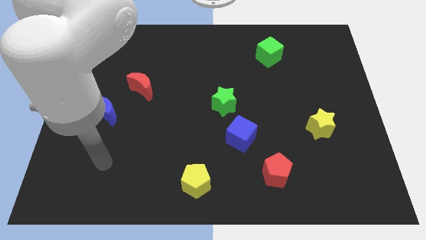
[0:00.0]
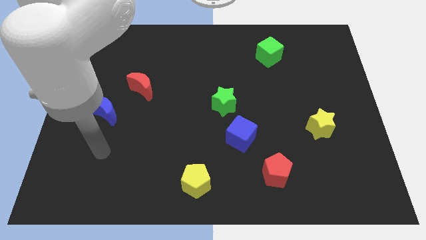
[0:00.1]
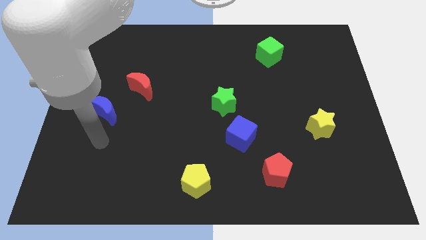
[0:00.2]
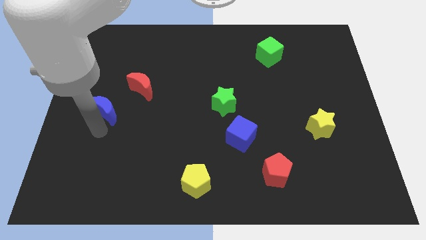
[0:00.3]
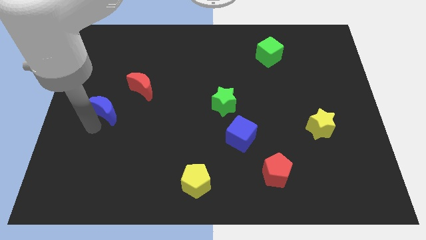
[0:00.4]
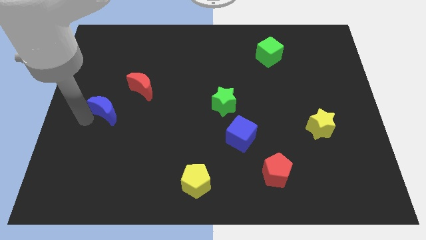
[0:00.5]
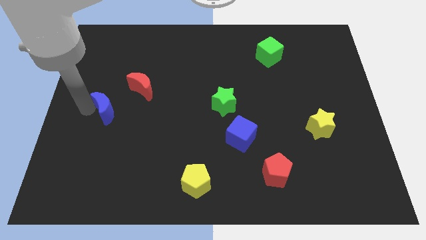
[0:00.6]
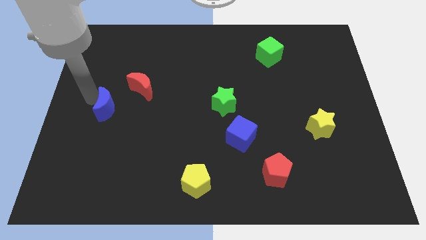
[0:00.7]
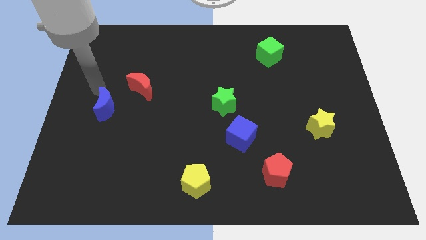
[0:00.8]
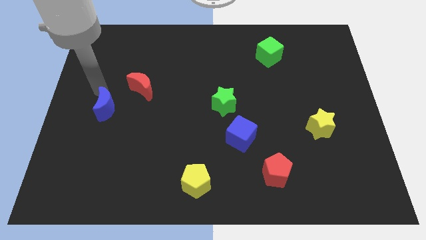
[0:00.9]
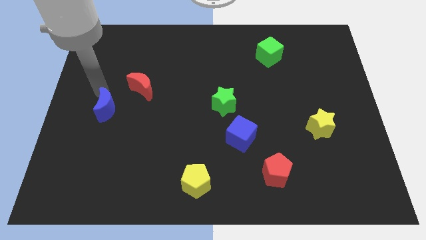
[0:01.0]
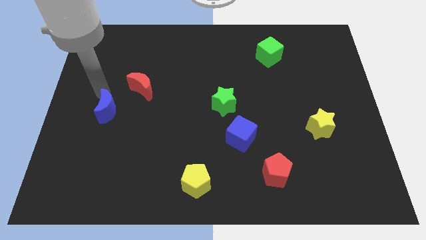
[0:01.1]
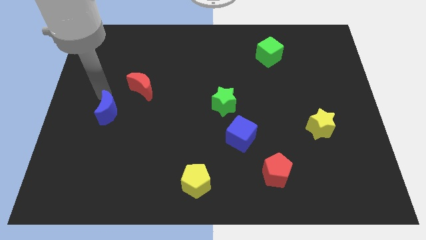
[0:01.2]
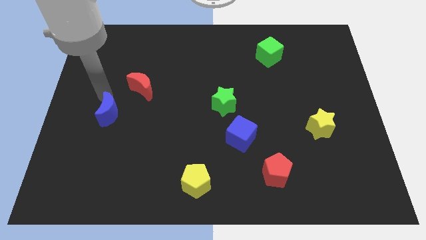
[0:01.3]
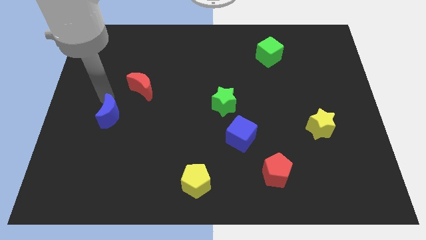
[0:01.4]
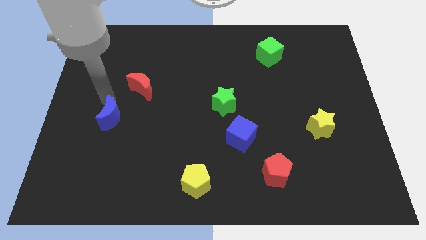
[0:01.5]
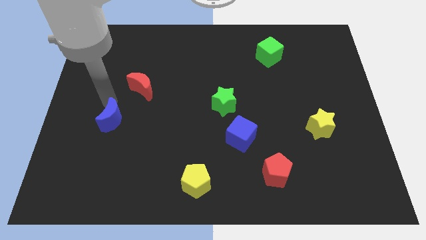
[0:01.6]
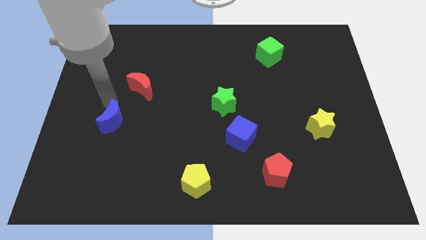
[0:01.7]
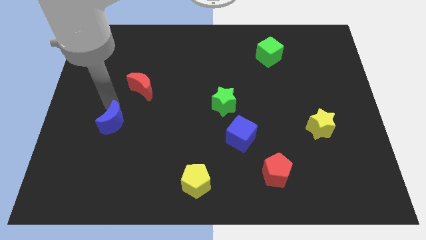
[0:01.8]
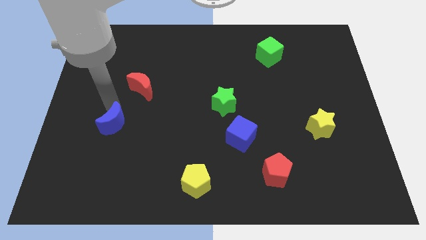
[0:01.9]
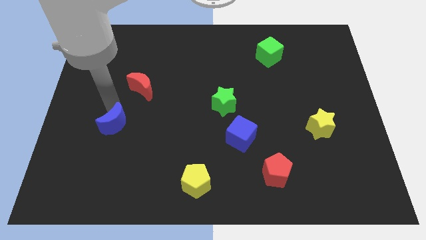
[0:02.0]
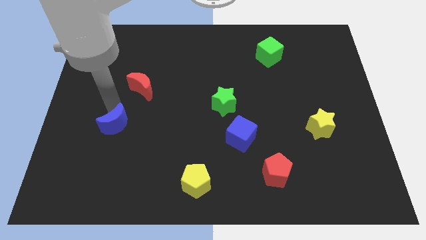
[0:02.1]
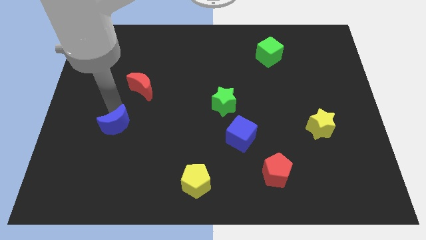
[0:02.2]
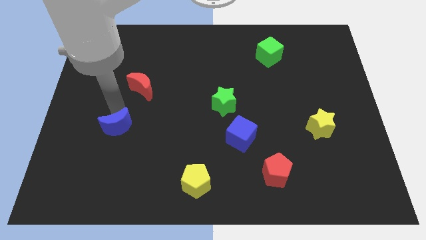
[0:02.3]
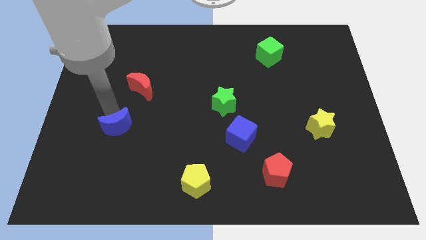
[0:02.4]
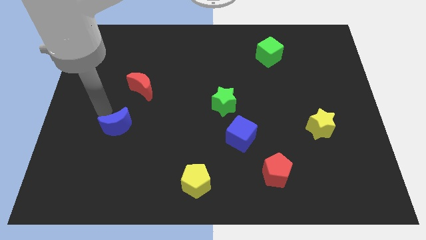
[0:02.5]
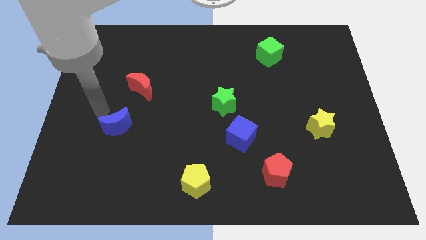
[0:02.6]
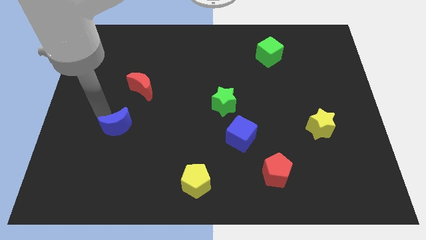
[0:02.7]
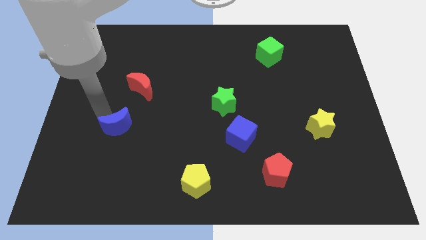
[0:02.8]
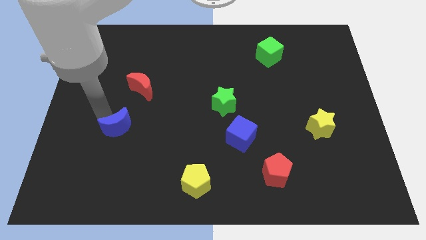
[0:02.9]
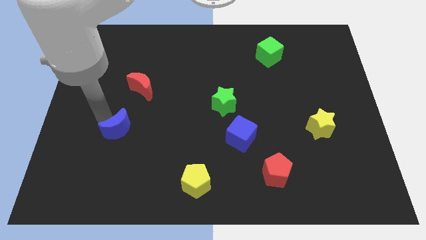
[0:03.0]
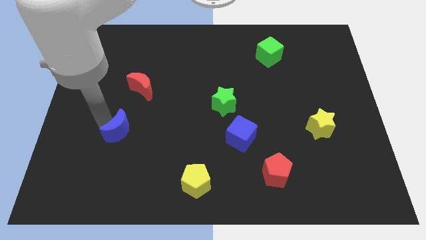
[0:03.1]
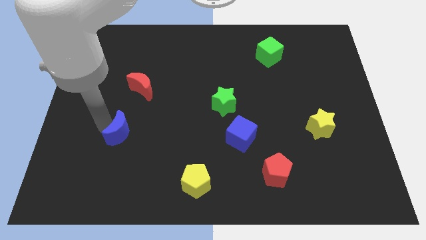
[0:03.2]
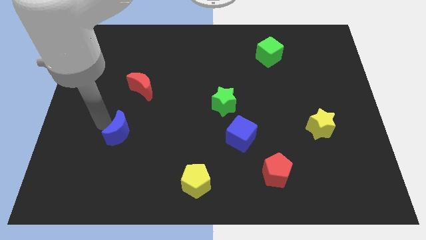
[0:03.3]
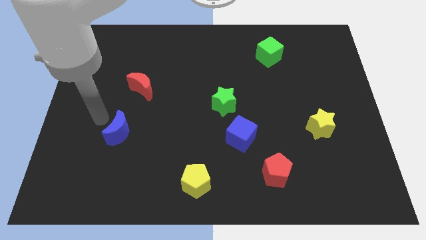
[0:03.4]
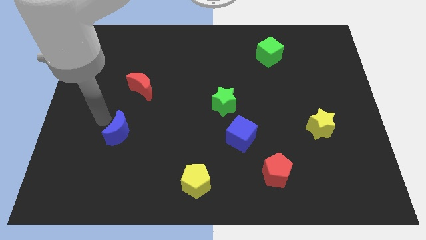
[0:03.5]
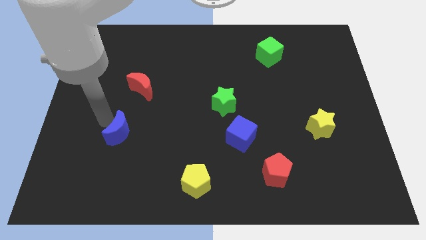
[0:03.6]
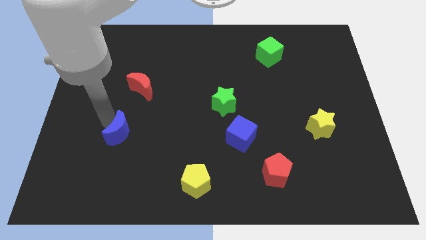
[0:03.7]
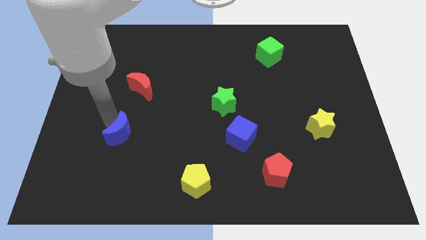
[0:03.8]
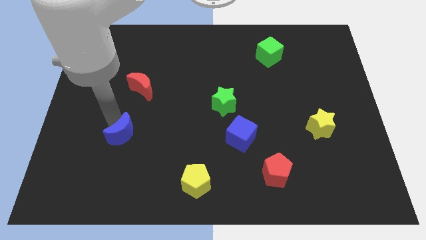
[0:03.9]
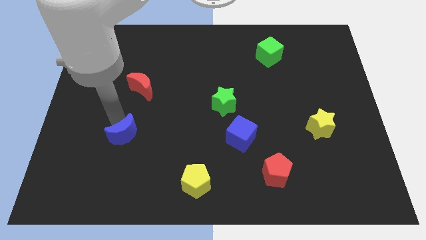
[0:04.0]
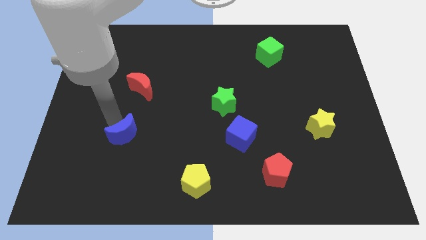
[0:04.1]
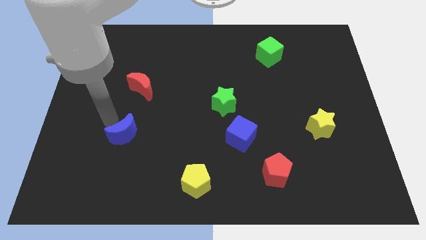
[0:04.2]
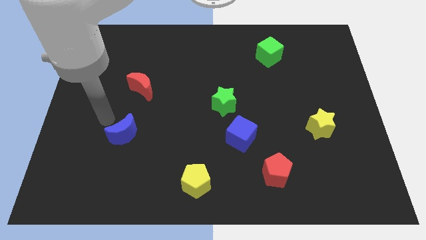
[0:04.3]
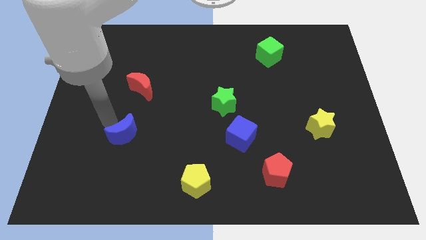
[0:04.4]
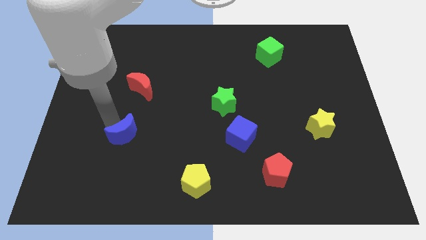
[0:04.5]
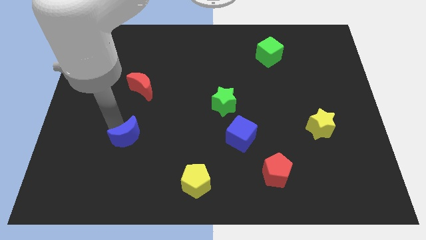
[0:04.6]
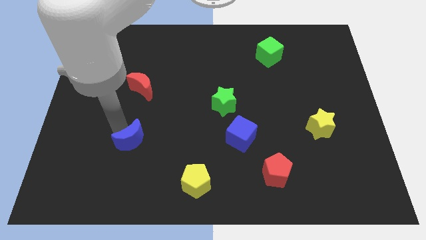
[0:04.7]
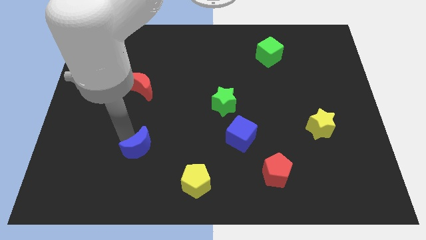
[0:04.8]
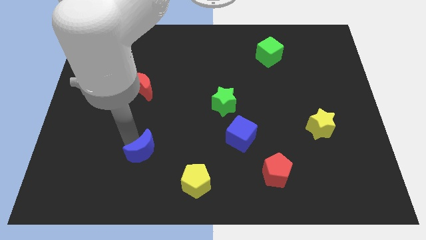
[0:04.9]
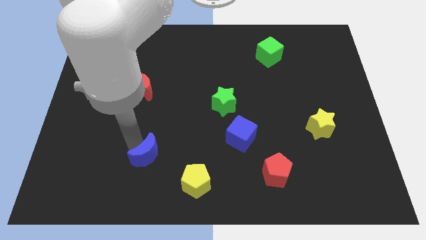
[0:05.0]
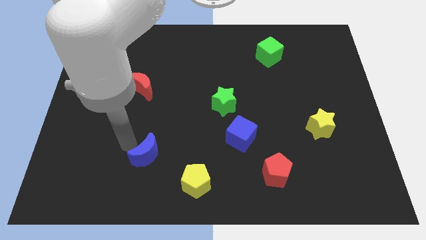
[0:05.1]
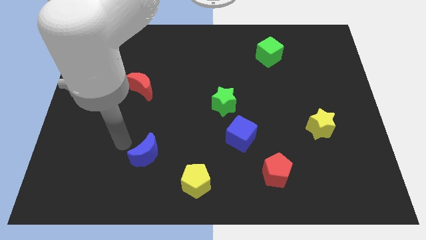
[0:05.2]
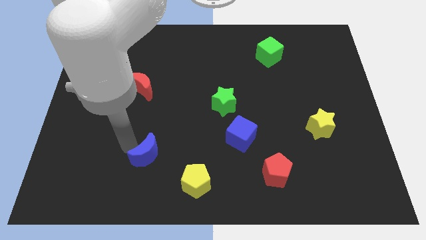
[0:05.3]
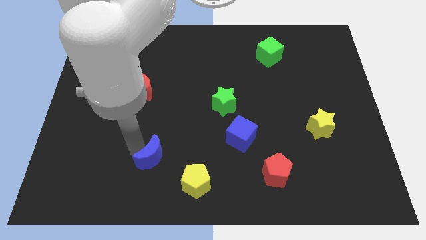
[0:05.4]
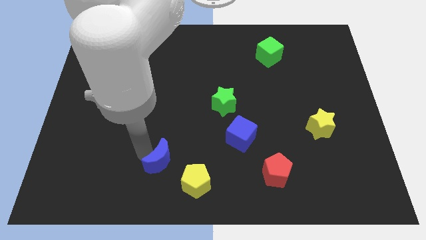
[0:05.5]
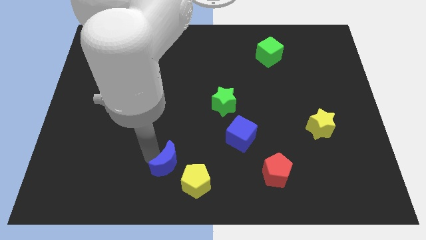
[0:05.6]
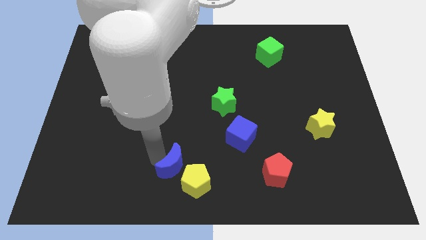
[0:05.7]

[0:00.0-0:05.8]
move the blue moon to the yellow pentagon

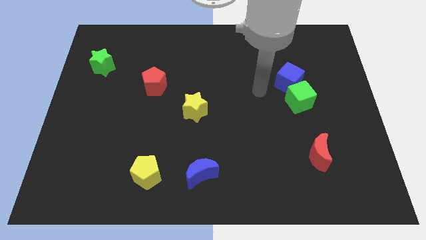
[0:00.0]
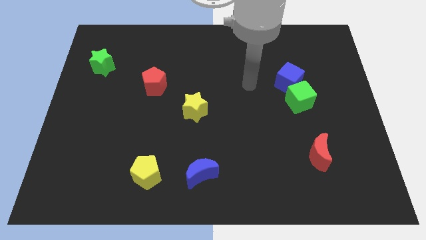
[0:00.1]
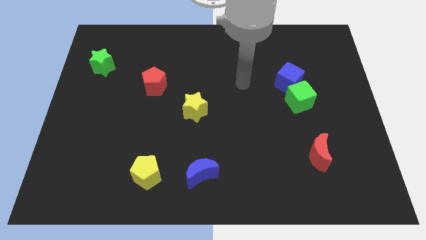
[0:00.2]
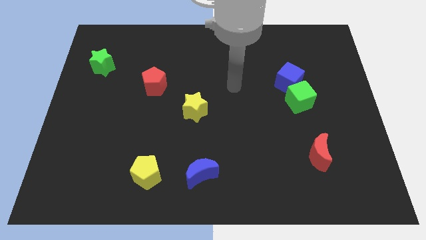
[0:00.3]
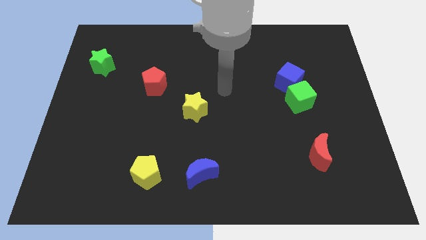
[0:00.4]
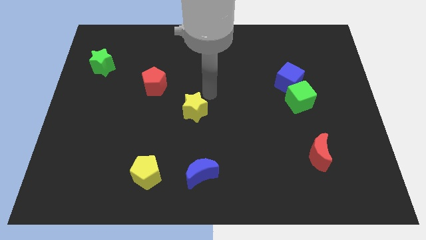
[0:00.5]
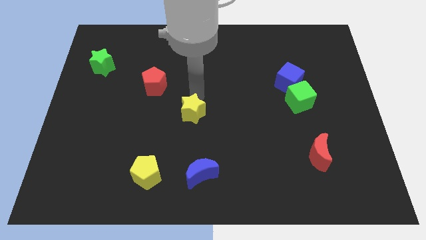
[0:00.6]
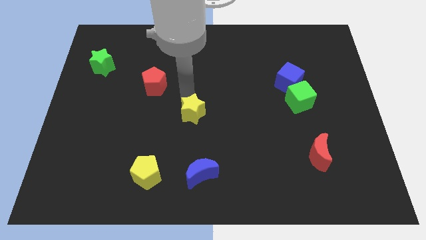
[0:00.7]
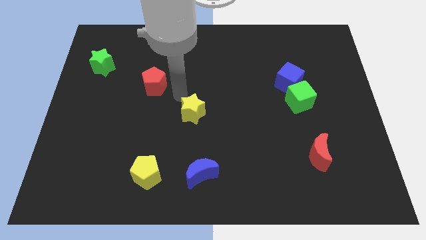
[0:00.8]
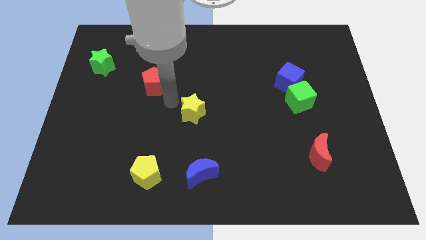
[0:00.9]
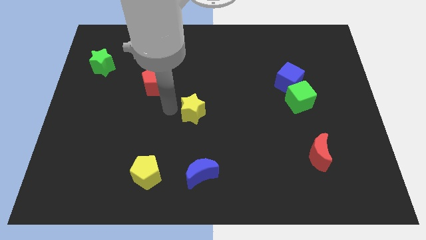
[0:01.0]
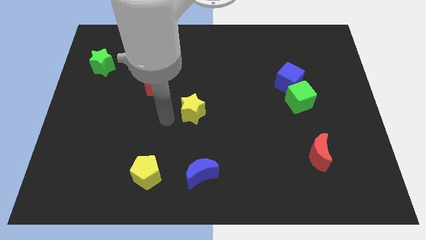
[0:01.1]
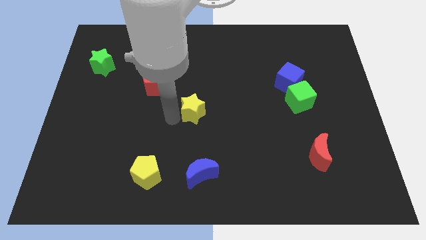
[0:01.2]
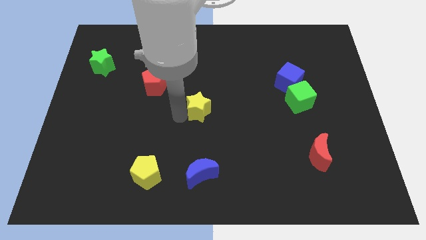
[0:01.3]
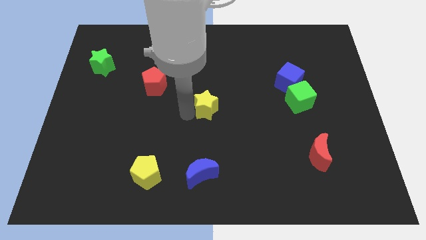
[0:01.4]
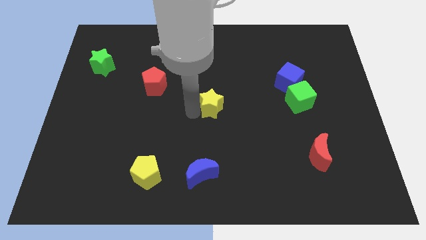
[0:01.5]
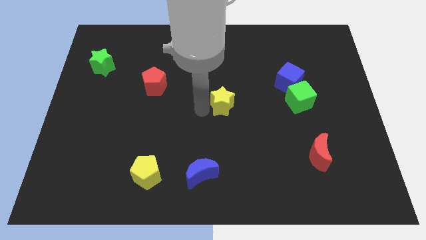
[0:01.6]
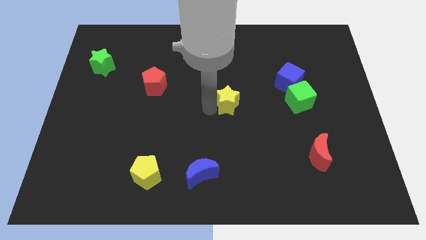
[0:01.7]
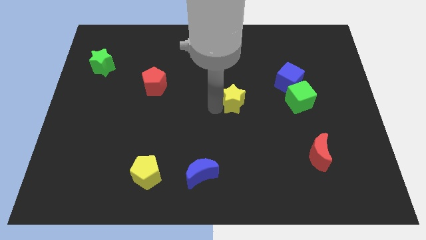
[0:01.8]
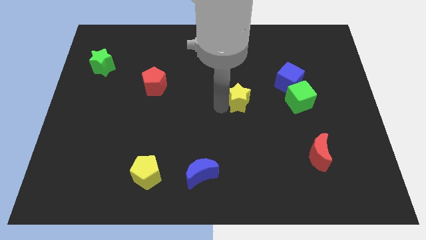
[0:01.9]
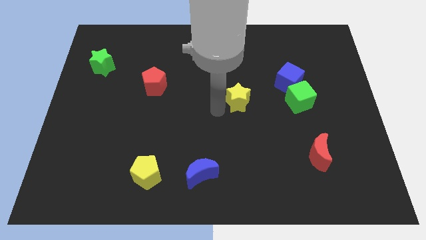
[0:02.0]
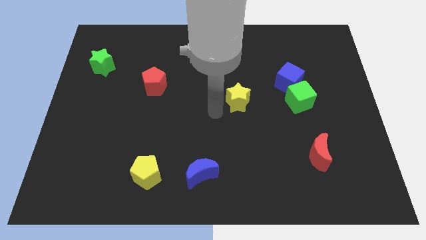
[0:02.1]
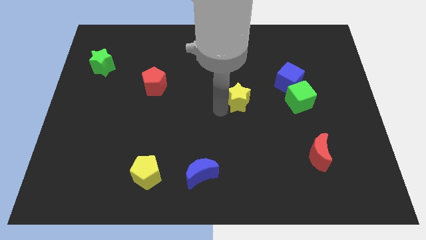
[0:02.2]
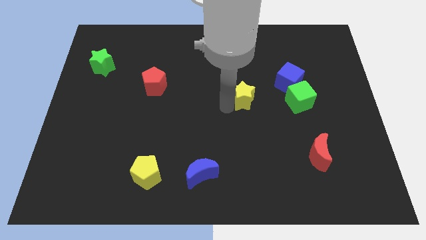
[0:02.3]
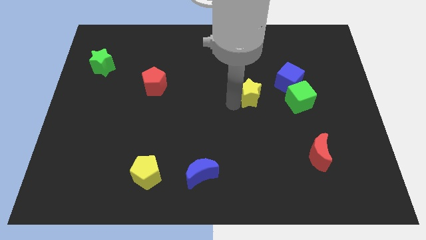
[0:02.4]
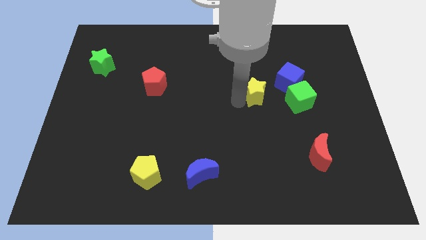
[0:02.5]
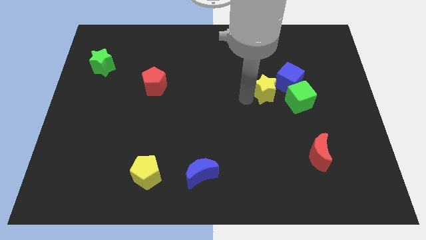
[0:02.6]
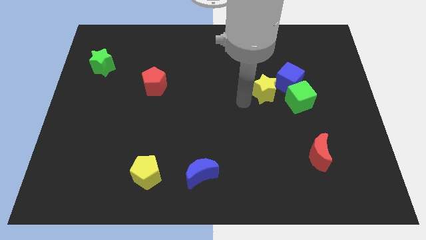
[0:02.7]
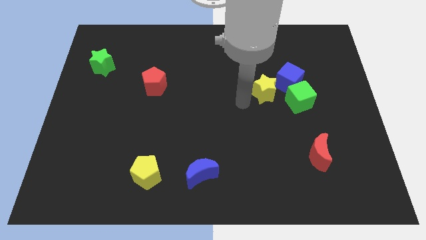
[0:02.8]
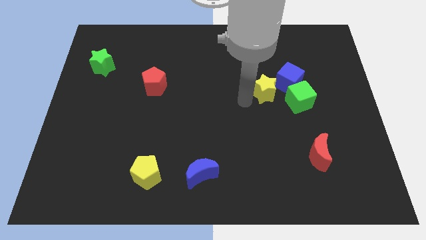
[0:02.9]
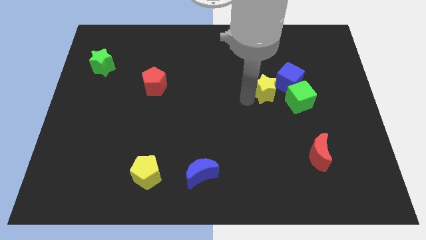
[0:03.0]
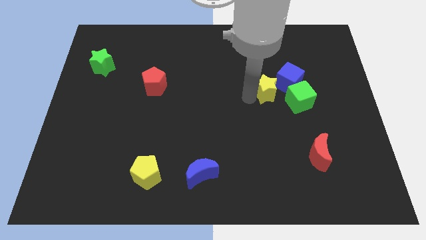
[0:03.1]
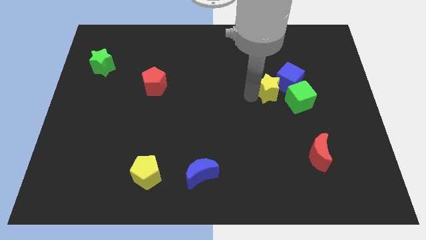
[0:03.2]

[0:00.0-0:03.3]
slide the yellow star close to the blue cube
